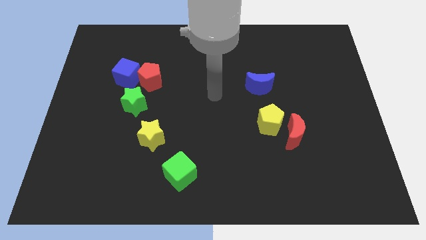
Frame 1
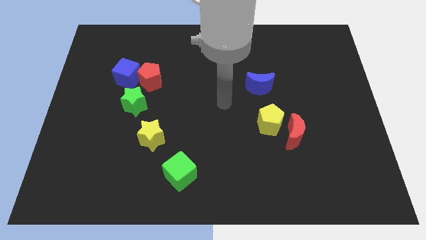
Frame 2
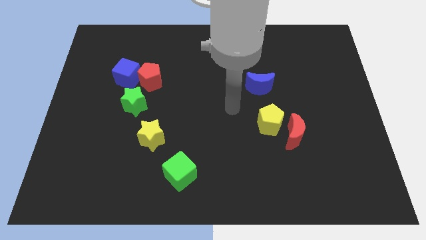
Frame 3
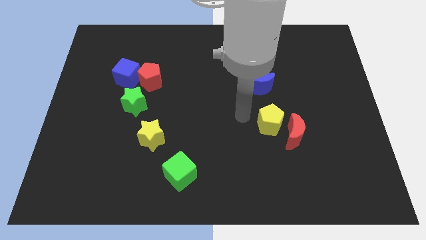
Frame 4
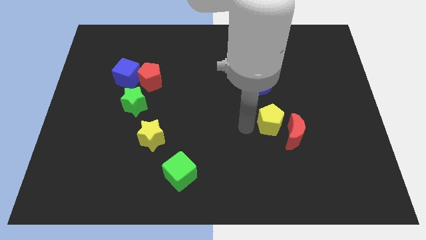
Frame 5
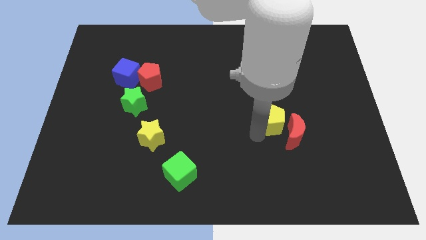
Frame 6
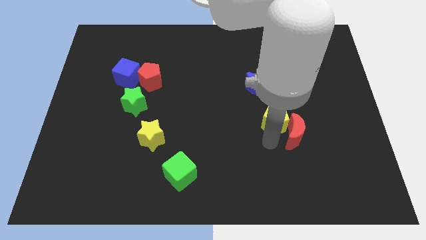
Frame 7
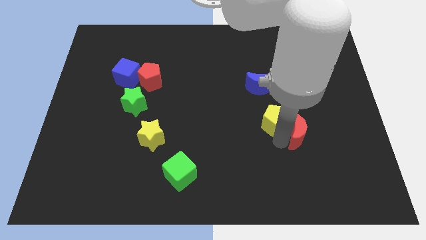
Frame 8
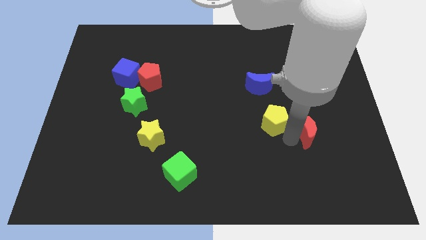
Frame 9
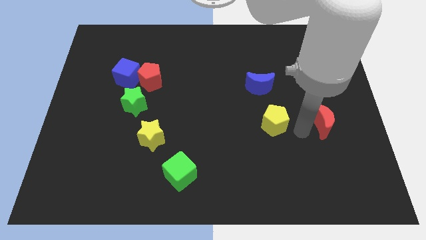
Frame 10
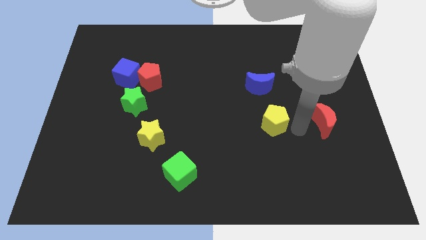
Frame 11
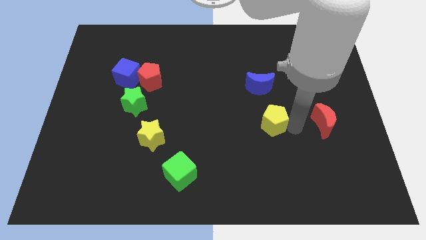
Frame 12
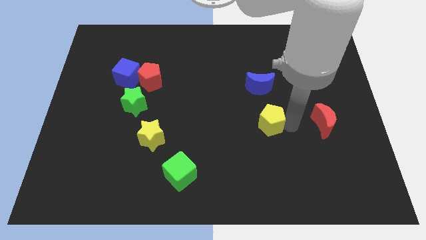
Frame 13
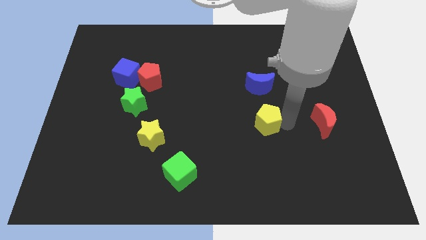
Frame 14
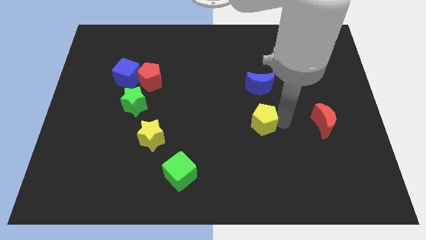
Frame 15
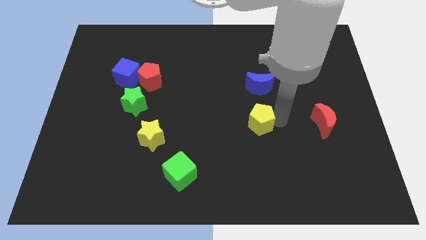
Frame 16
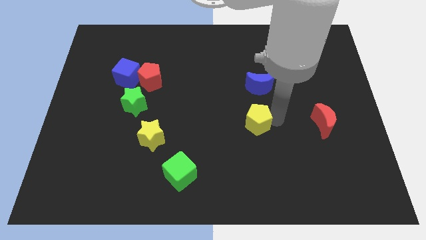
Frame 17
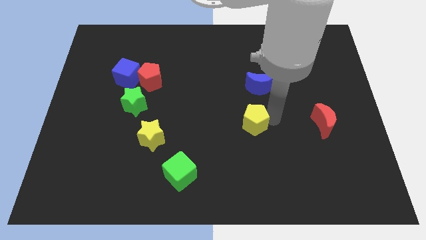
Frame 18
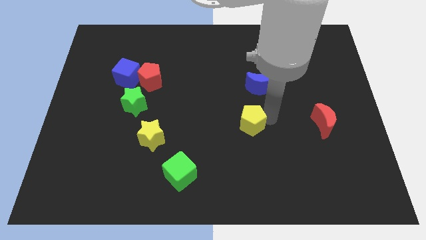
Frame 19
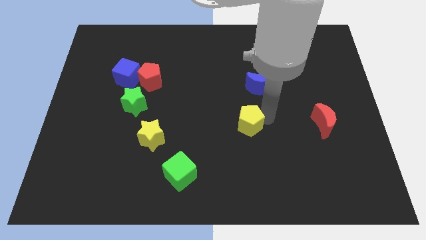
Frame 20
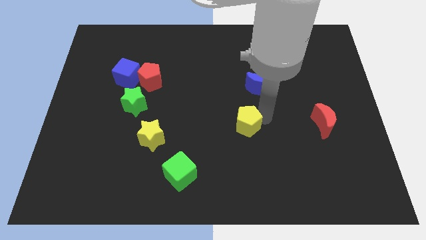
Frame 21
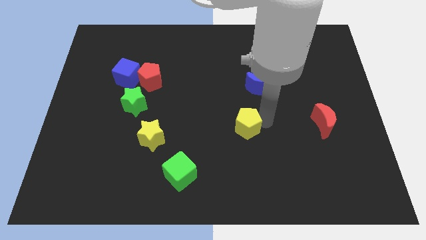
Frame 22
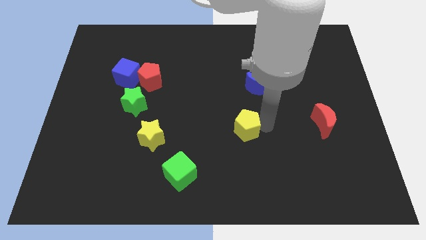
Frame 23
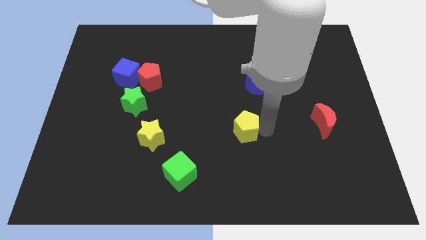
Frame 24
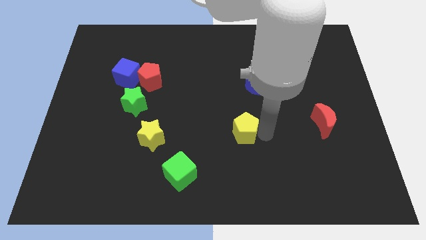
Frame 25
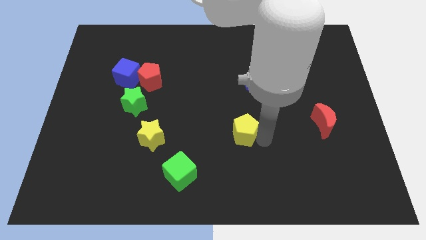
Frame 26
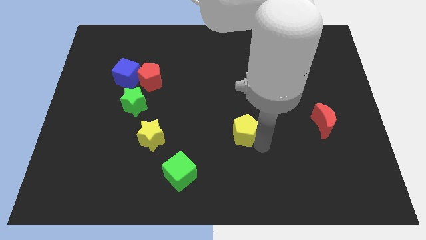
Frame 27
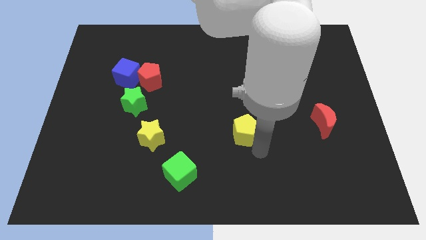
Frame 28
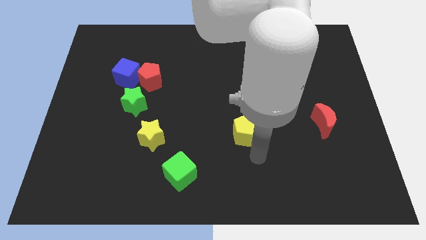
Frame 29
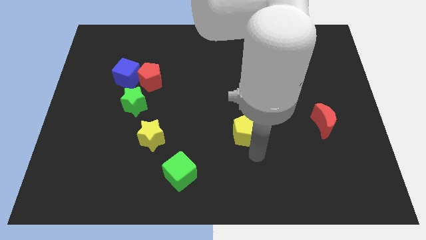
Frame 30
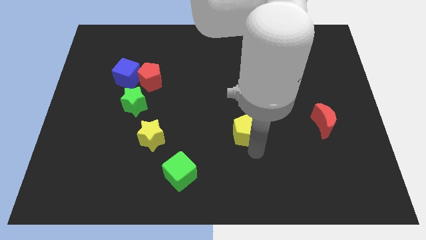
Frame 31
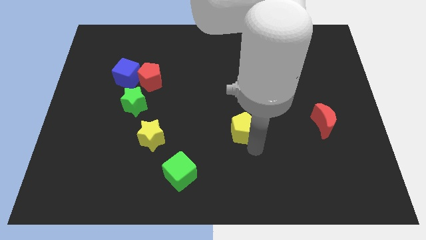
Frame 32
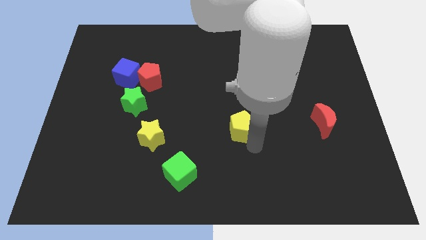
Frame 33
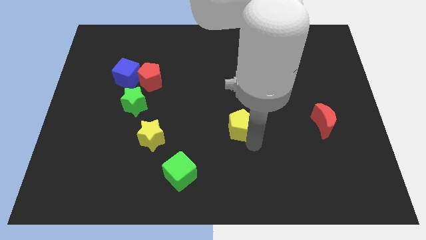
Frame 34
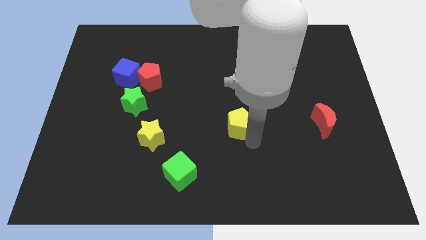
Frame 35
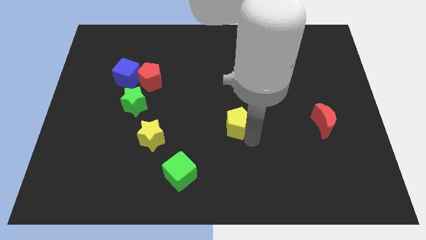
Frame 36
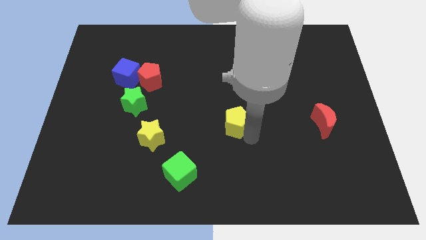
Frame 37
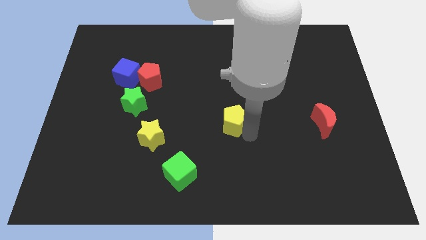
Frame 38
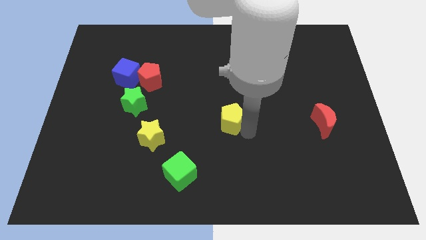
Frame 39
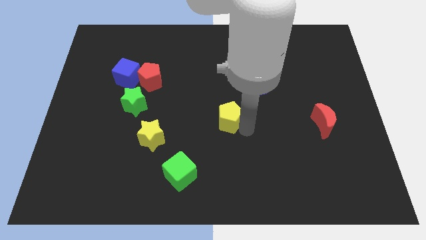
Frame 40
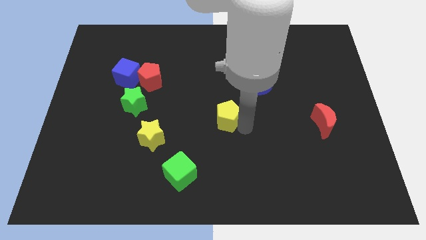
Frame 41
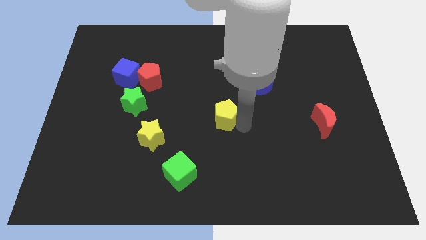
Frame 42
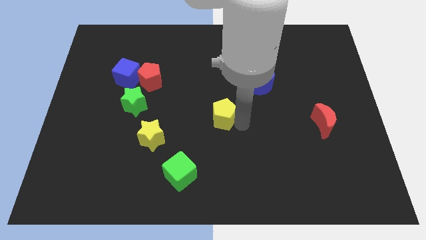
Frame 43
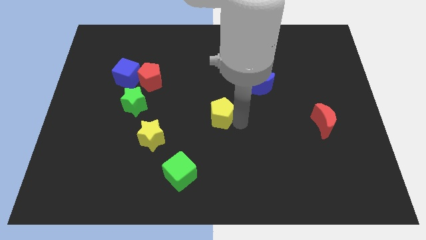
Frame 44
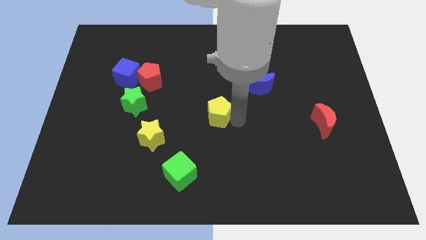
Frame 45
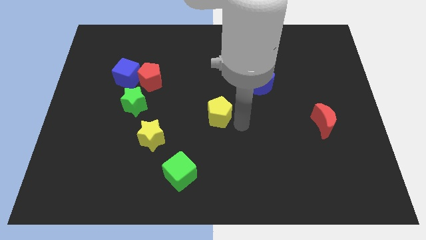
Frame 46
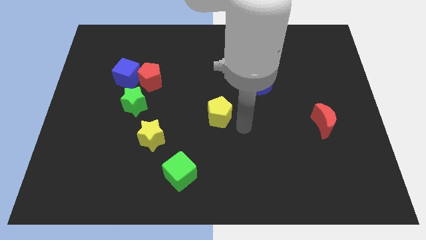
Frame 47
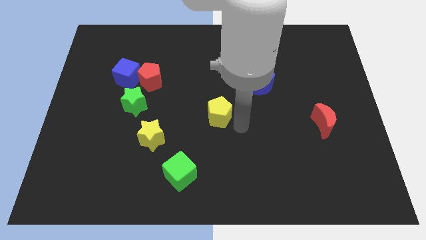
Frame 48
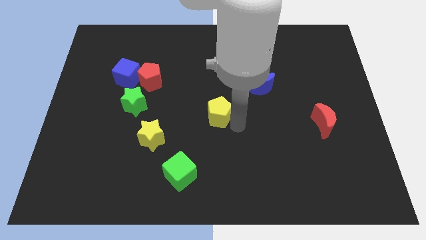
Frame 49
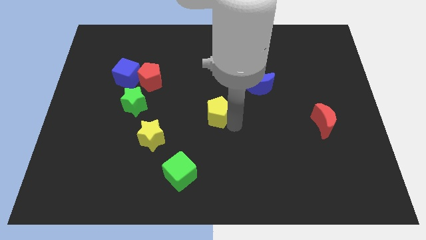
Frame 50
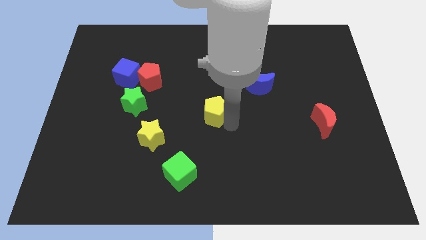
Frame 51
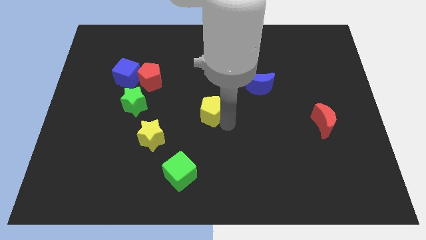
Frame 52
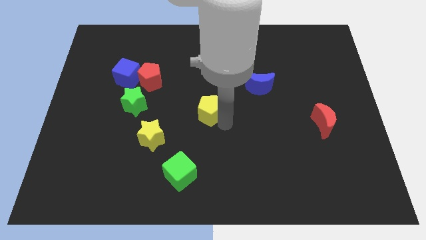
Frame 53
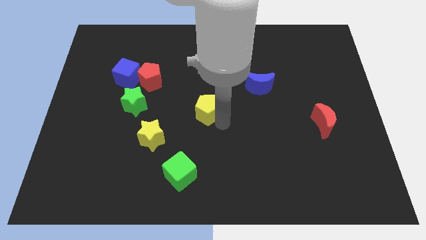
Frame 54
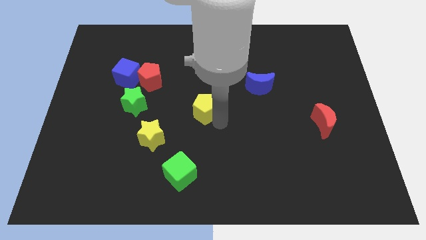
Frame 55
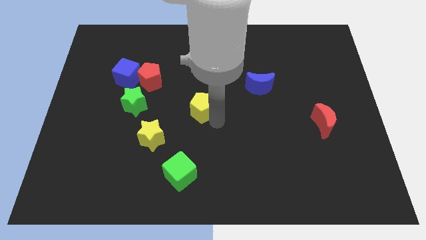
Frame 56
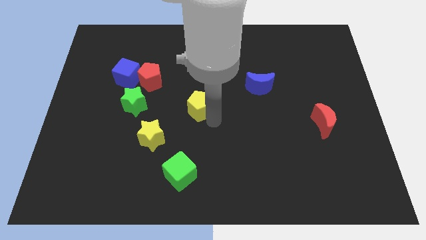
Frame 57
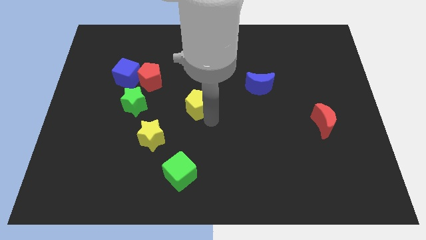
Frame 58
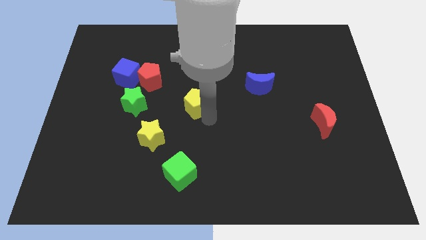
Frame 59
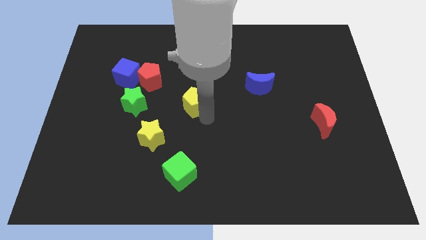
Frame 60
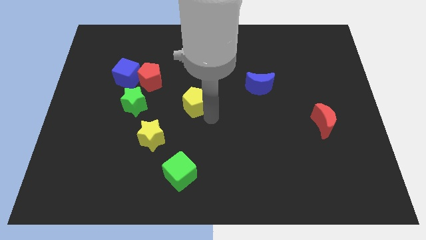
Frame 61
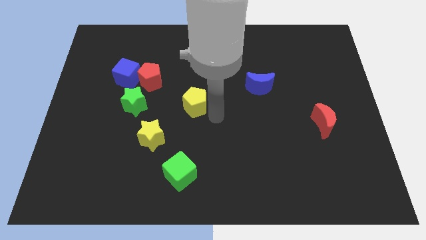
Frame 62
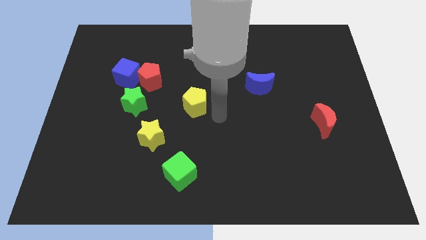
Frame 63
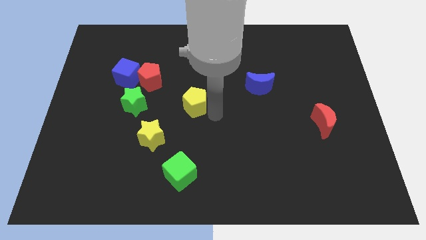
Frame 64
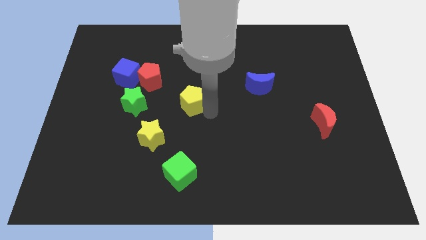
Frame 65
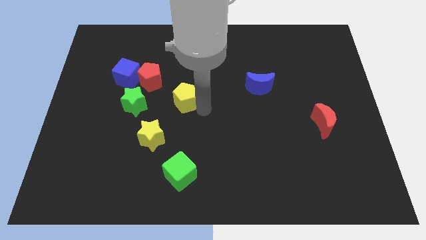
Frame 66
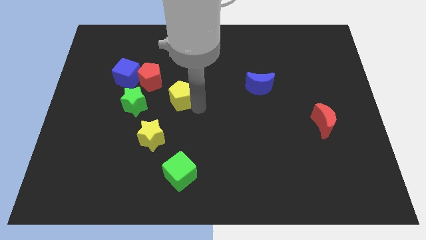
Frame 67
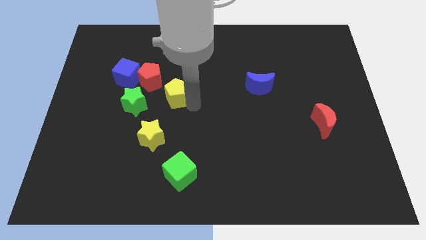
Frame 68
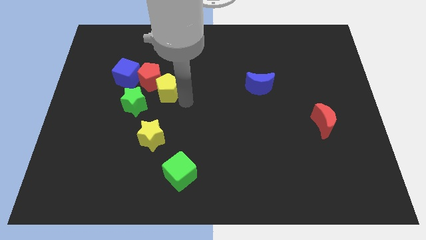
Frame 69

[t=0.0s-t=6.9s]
slide the yellow pentagon towards the red pentagon

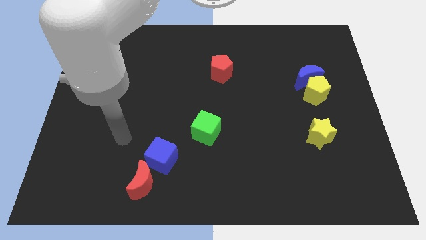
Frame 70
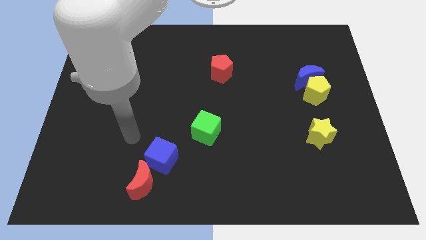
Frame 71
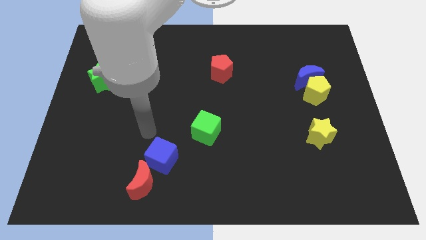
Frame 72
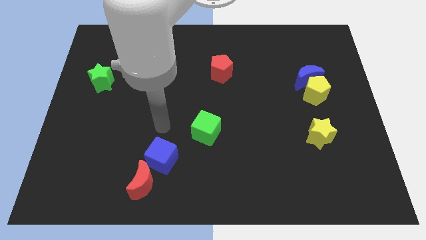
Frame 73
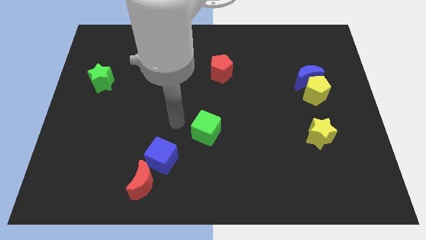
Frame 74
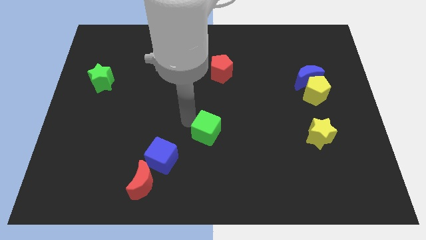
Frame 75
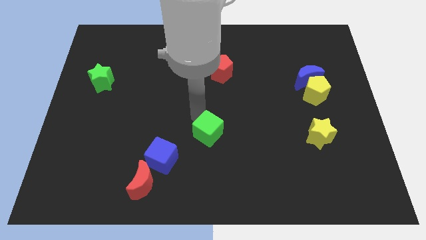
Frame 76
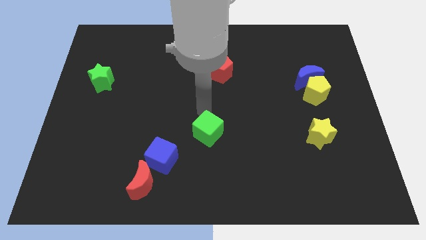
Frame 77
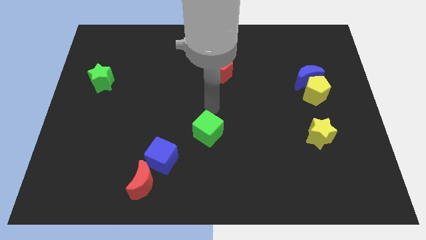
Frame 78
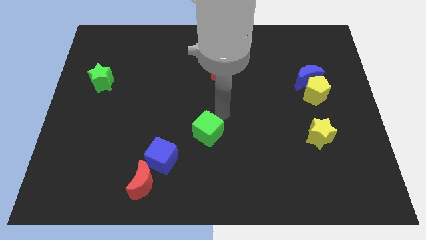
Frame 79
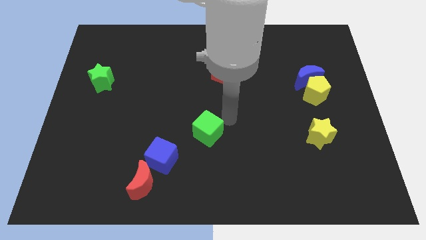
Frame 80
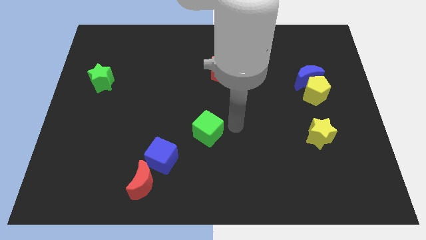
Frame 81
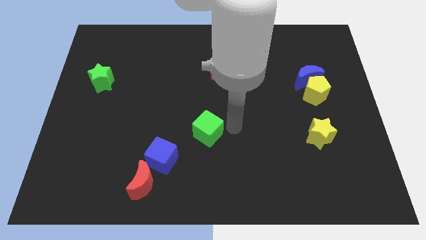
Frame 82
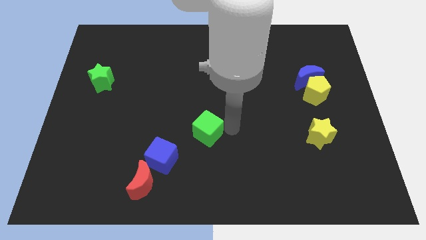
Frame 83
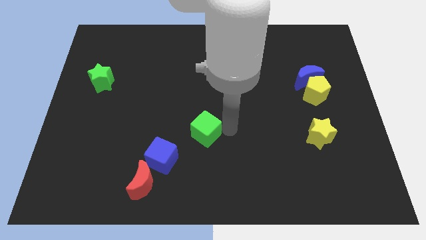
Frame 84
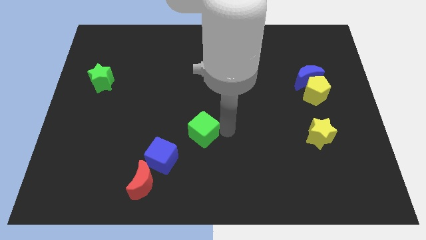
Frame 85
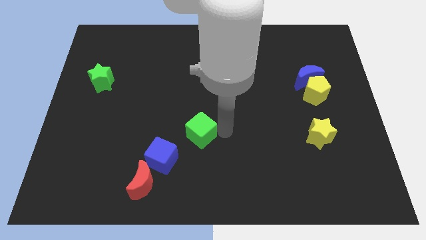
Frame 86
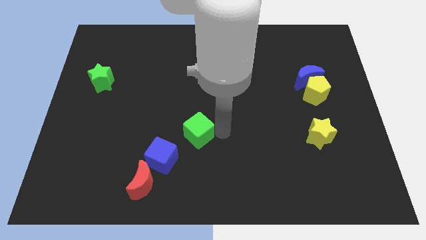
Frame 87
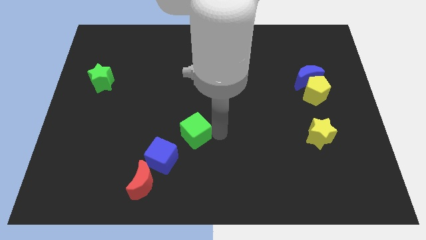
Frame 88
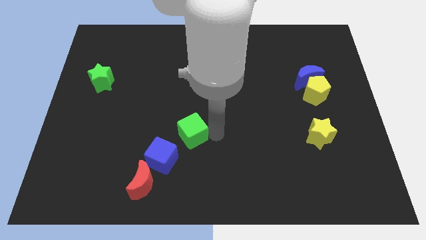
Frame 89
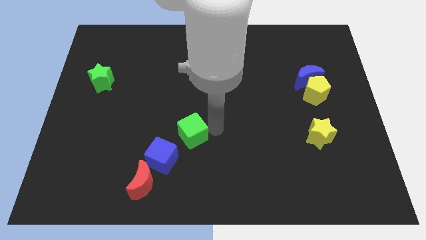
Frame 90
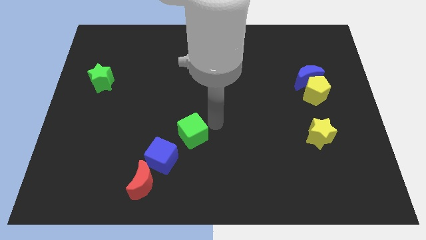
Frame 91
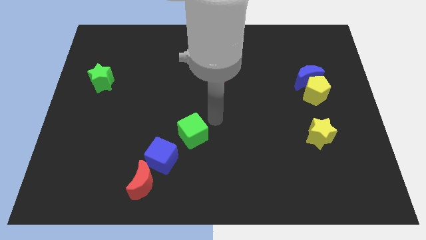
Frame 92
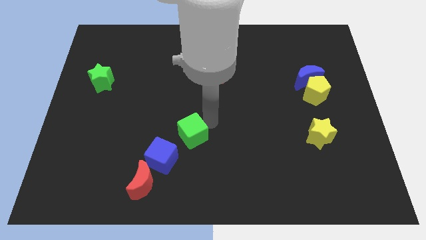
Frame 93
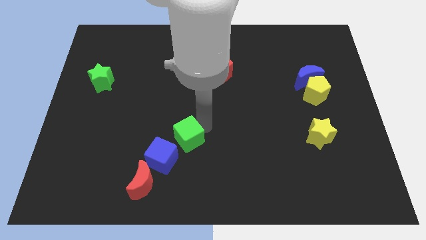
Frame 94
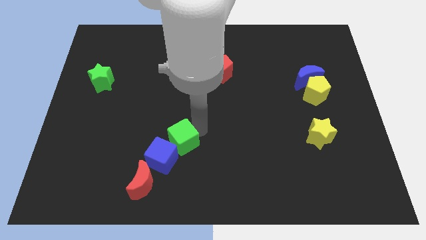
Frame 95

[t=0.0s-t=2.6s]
move the green cube to the blue cube
